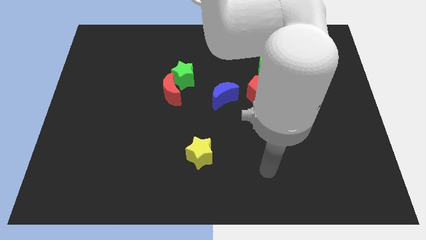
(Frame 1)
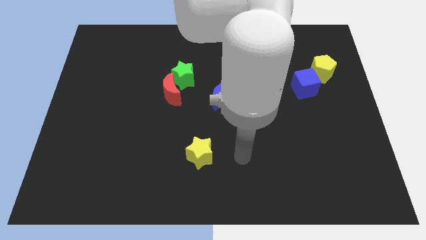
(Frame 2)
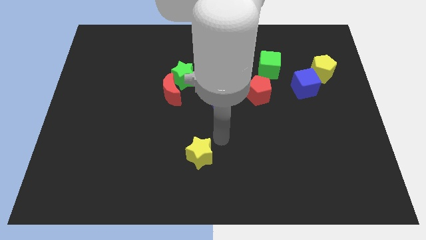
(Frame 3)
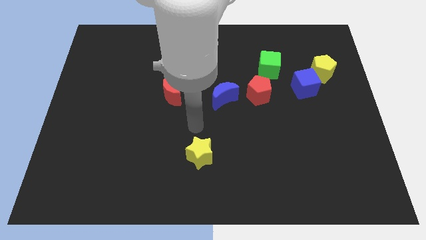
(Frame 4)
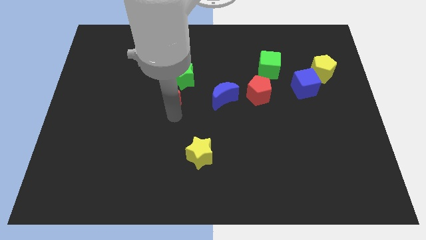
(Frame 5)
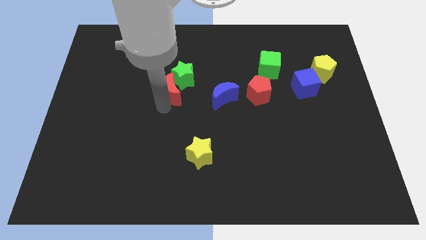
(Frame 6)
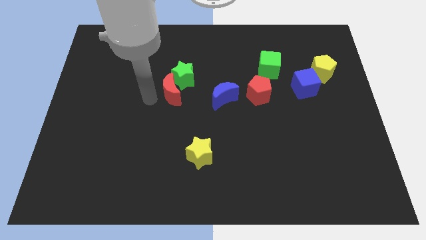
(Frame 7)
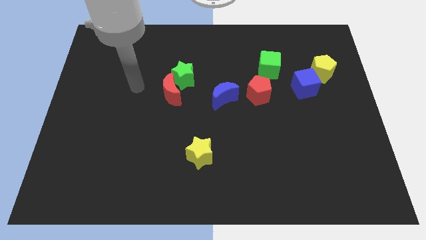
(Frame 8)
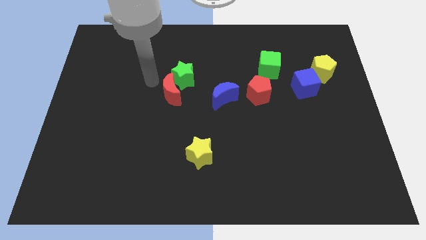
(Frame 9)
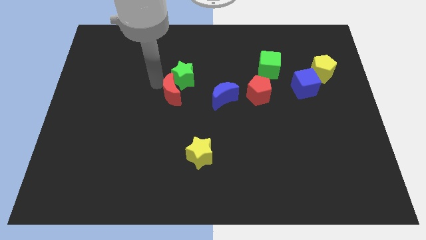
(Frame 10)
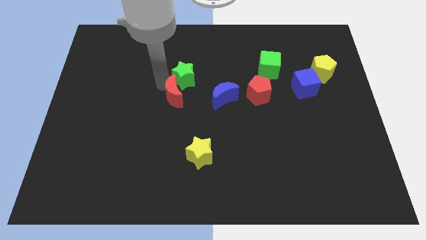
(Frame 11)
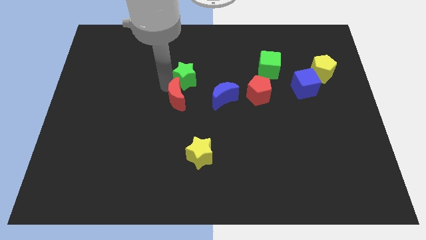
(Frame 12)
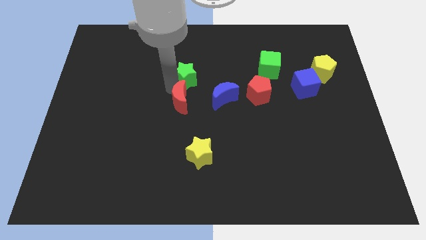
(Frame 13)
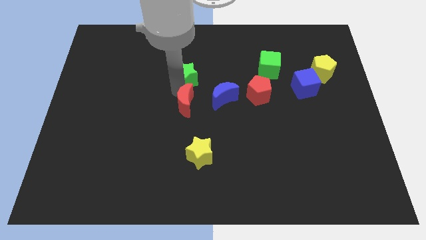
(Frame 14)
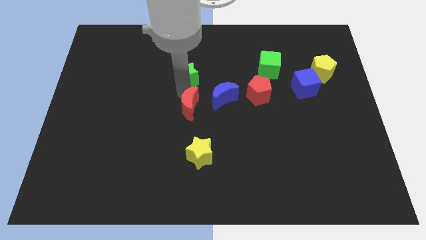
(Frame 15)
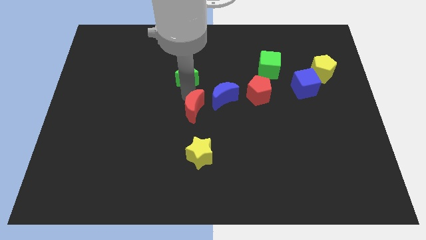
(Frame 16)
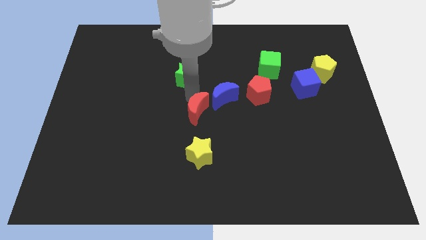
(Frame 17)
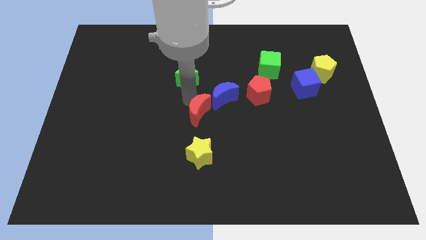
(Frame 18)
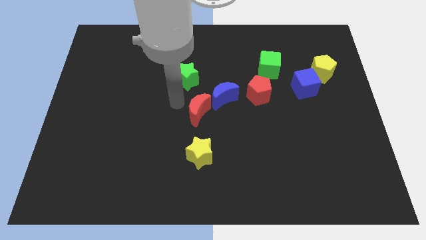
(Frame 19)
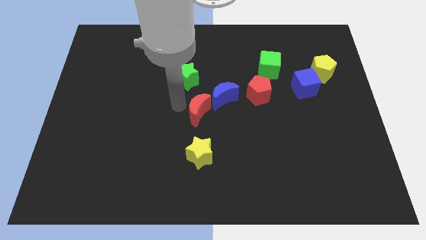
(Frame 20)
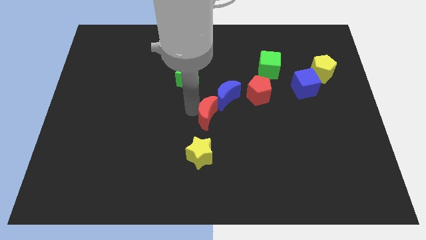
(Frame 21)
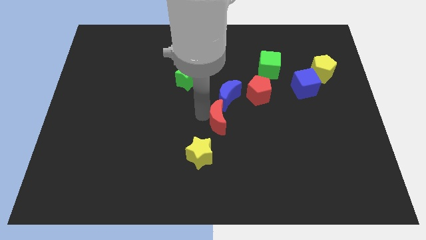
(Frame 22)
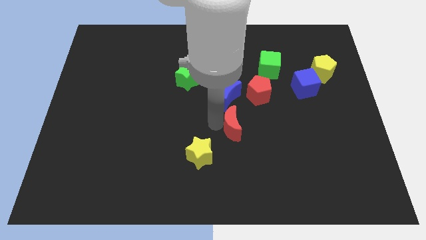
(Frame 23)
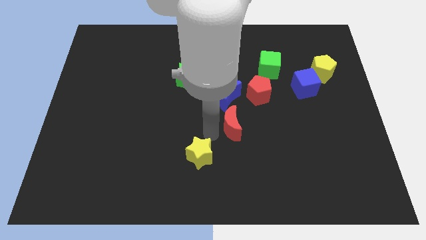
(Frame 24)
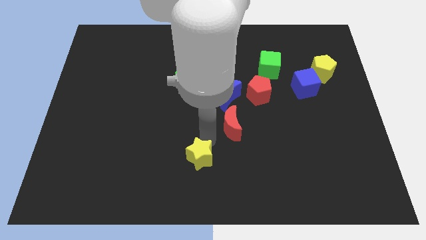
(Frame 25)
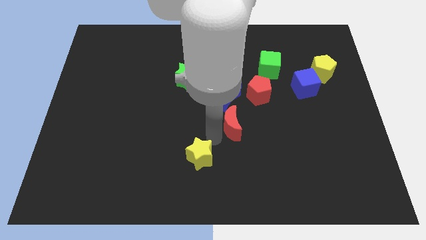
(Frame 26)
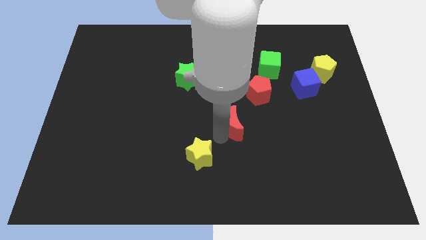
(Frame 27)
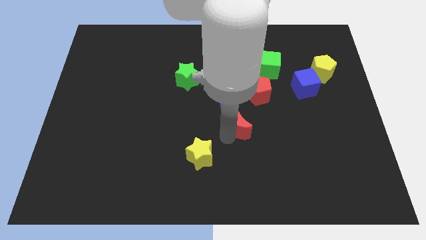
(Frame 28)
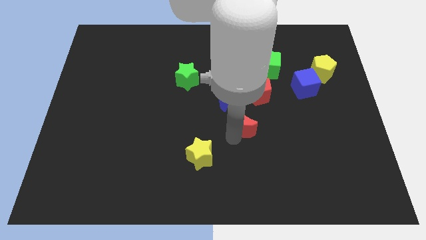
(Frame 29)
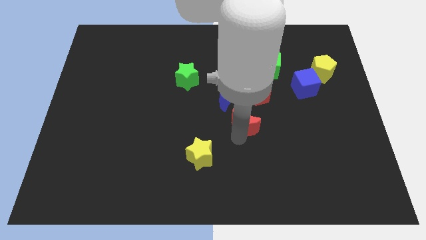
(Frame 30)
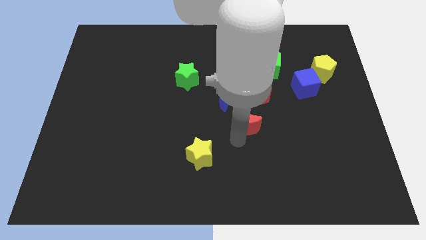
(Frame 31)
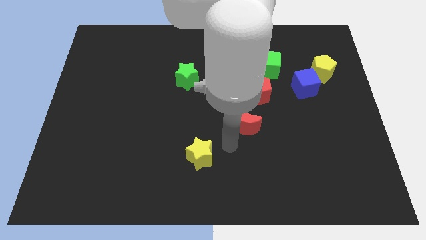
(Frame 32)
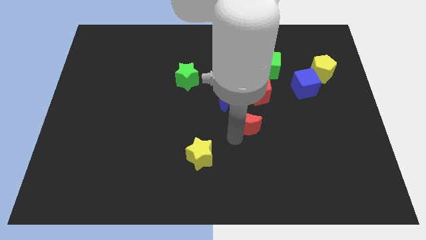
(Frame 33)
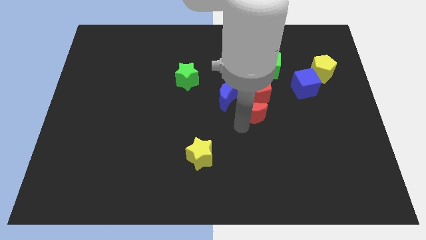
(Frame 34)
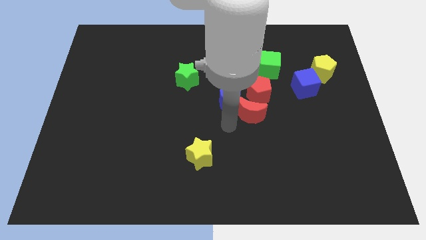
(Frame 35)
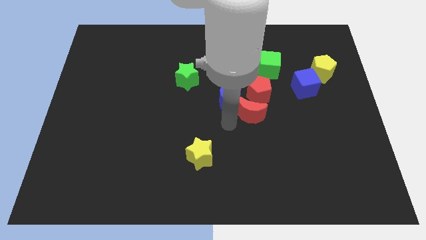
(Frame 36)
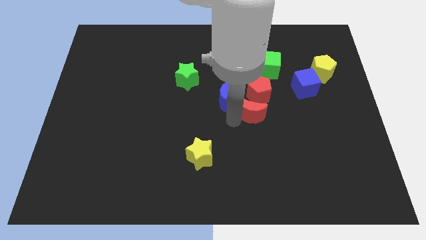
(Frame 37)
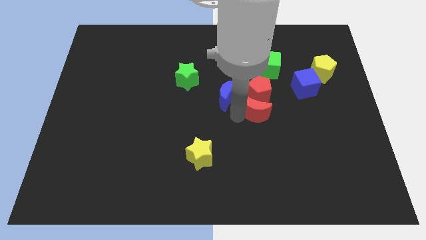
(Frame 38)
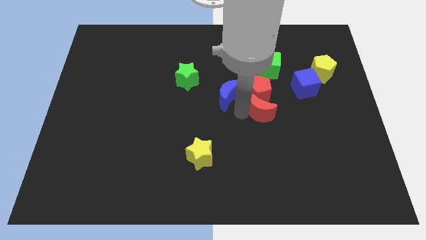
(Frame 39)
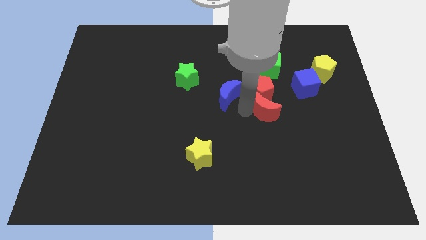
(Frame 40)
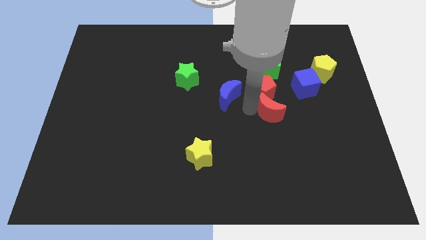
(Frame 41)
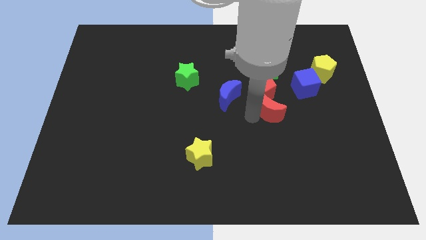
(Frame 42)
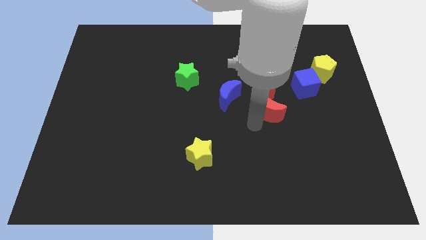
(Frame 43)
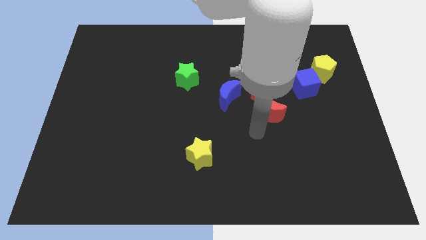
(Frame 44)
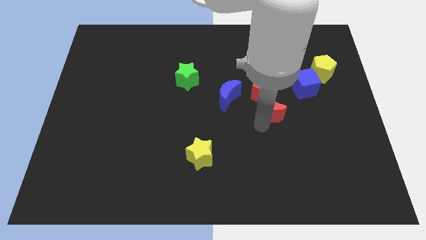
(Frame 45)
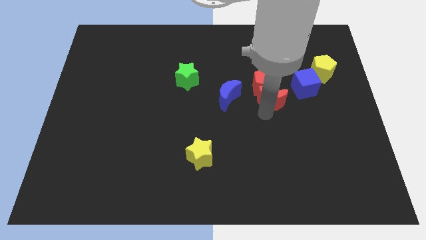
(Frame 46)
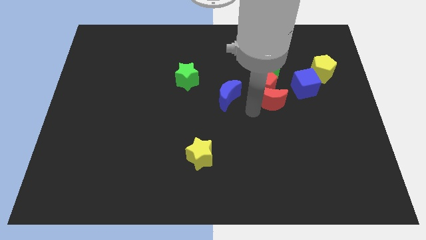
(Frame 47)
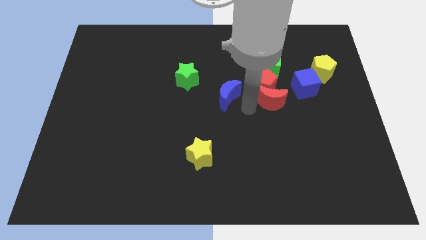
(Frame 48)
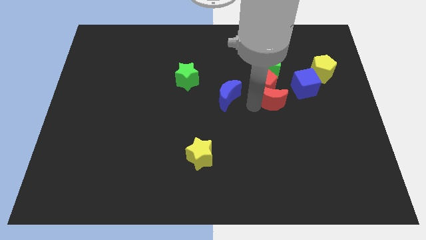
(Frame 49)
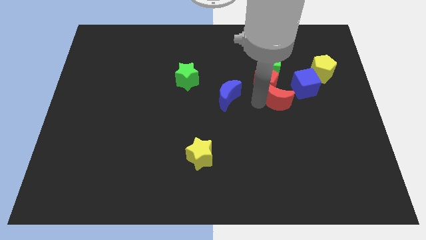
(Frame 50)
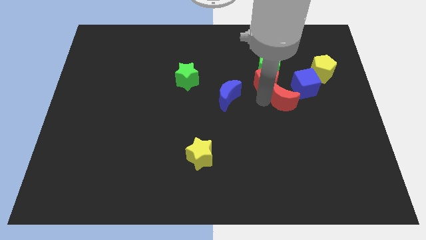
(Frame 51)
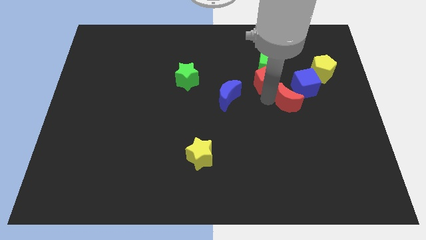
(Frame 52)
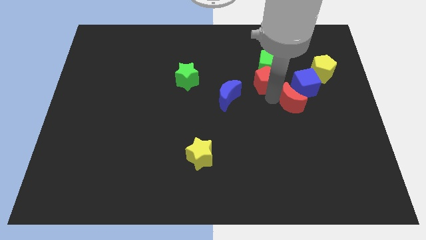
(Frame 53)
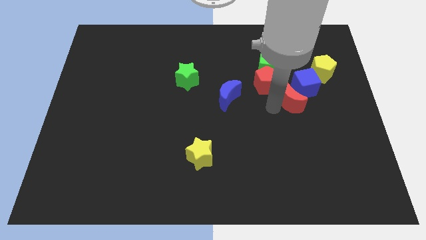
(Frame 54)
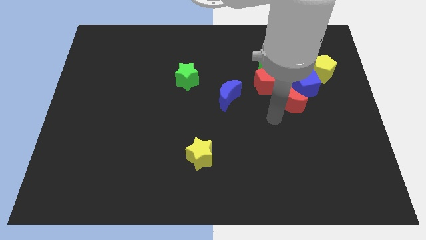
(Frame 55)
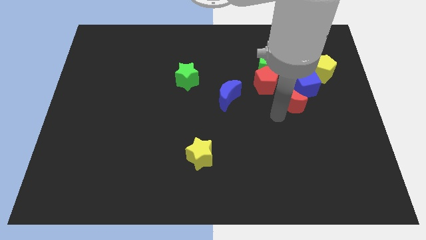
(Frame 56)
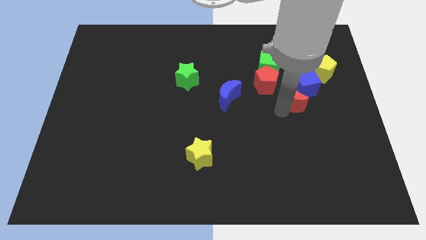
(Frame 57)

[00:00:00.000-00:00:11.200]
push the red moon close to the blue cube

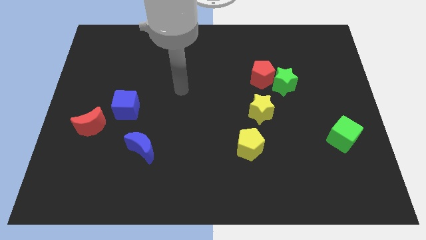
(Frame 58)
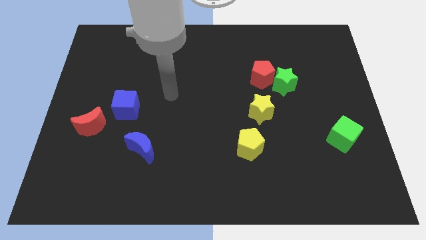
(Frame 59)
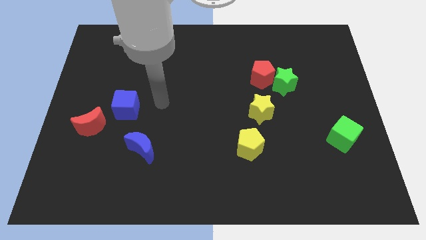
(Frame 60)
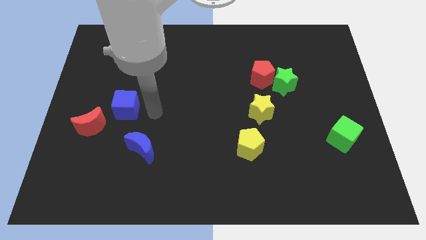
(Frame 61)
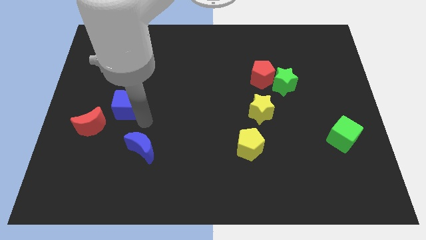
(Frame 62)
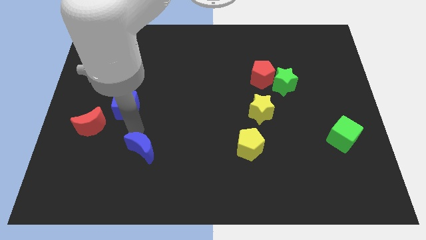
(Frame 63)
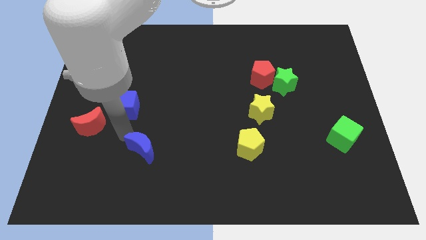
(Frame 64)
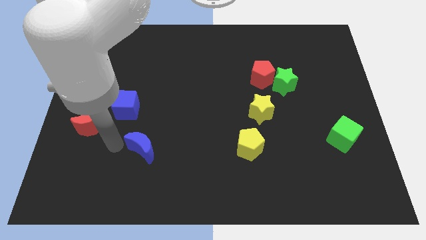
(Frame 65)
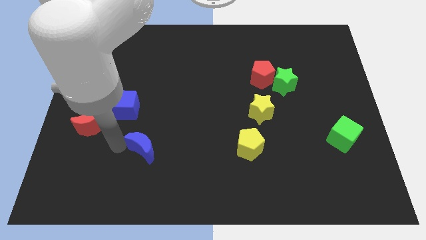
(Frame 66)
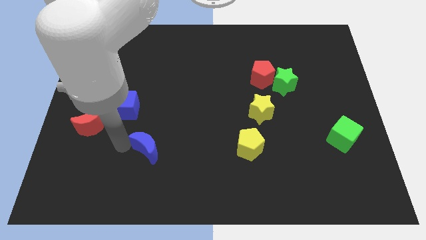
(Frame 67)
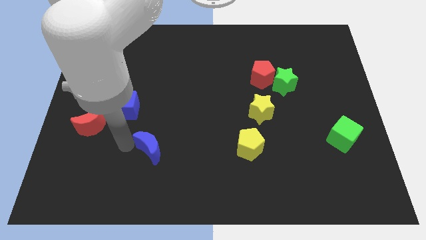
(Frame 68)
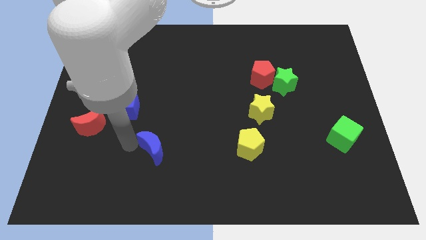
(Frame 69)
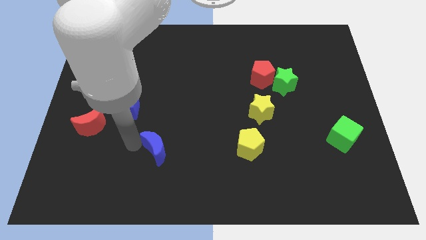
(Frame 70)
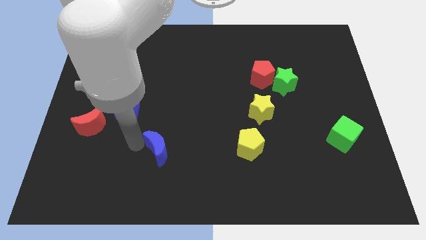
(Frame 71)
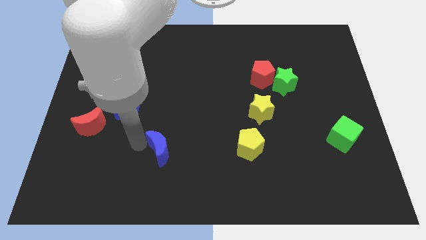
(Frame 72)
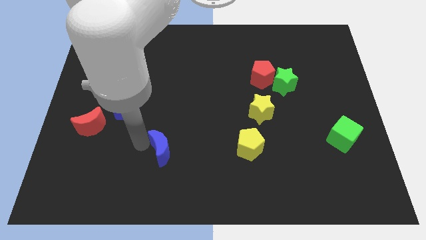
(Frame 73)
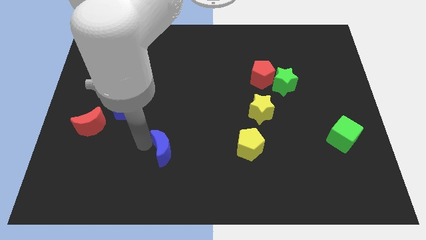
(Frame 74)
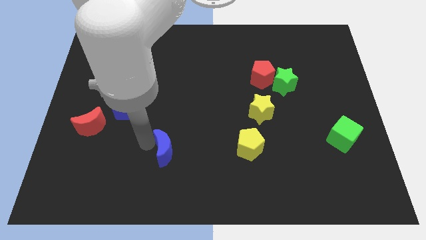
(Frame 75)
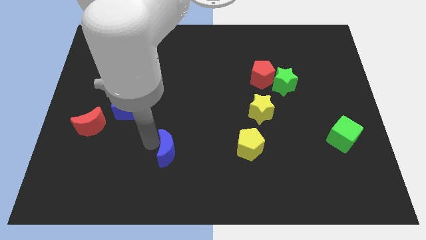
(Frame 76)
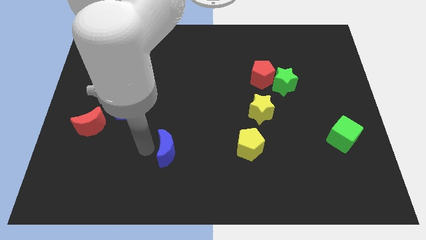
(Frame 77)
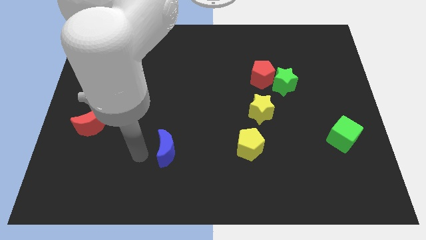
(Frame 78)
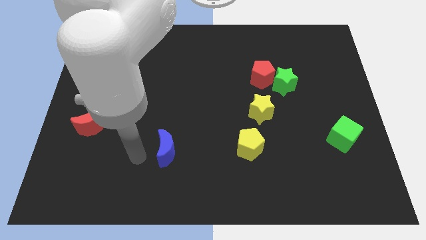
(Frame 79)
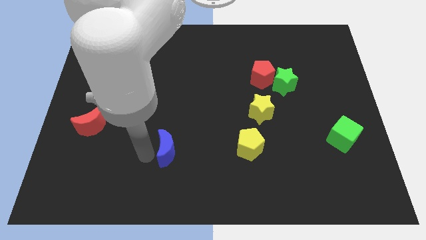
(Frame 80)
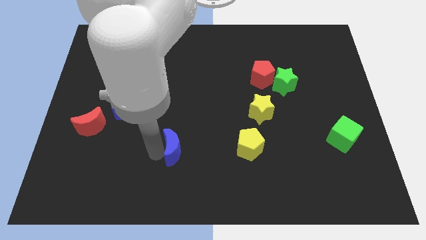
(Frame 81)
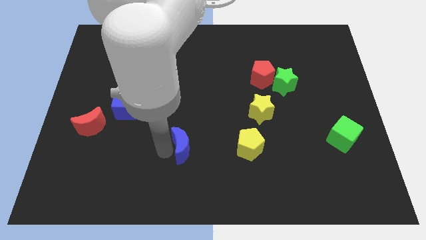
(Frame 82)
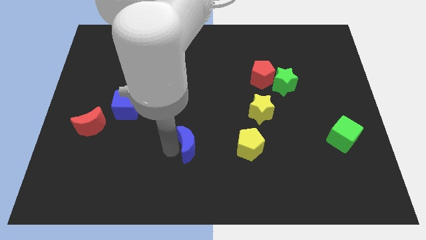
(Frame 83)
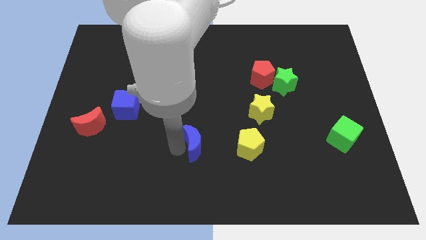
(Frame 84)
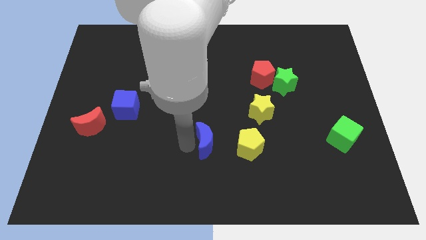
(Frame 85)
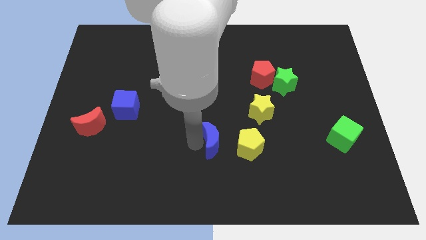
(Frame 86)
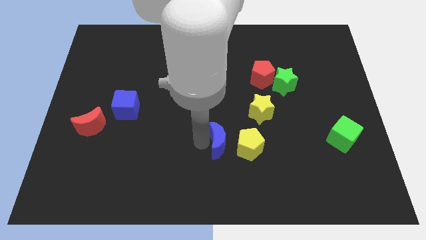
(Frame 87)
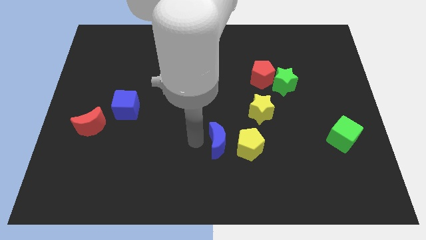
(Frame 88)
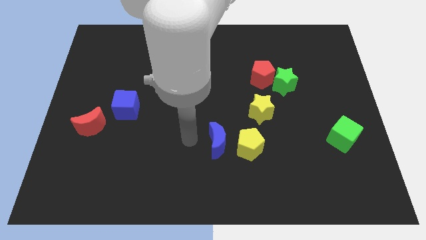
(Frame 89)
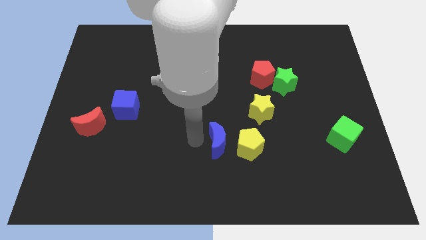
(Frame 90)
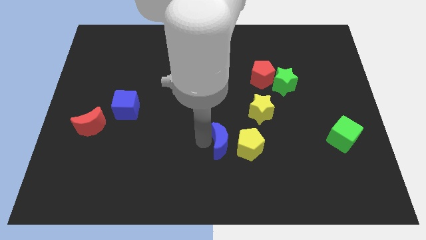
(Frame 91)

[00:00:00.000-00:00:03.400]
slide the blue moon towards the yellow pentagon
